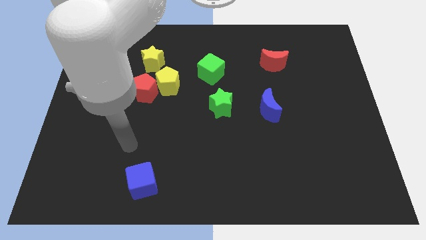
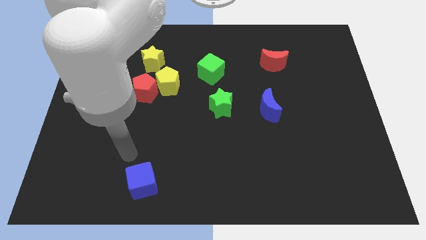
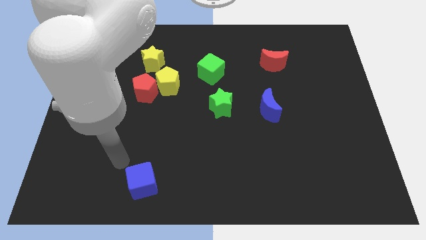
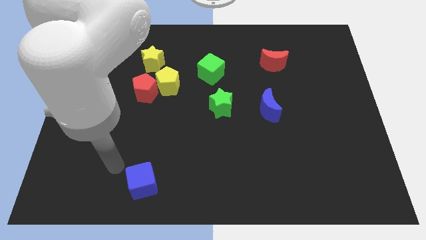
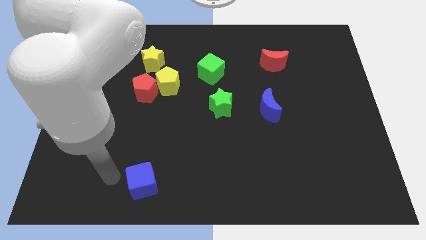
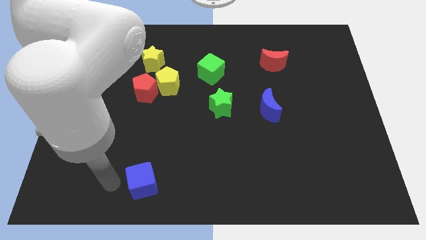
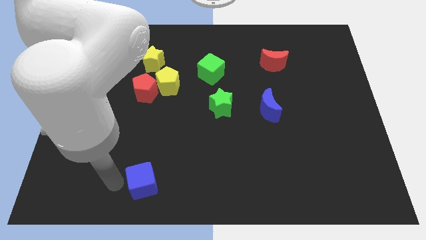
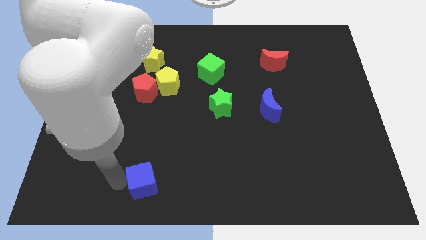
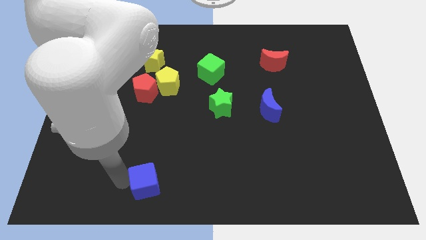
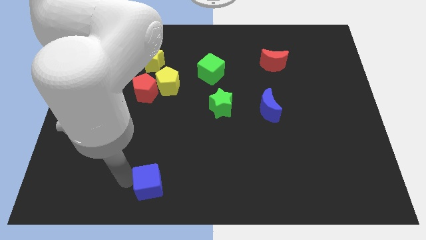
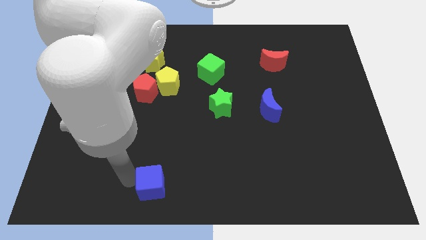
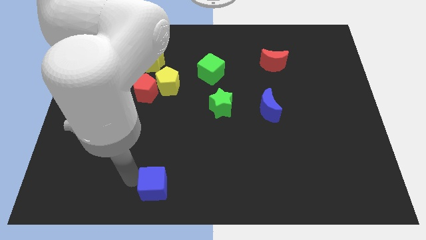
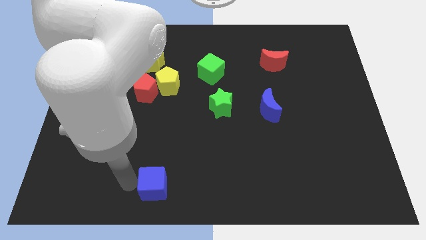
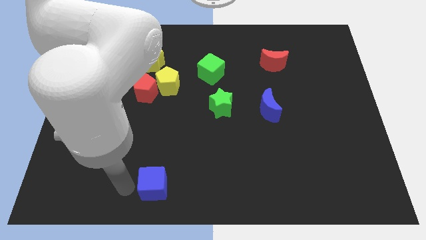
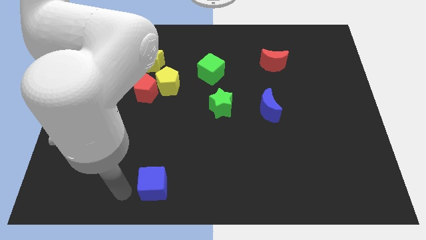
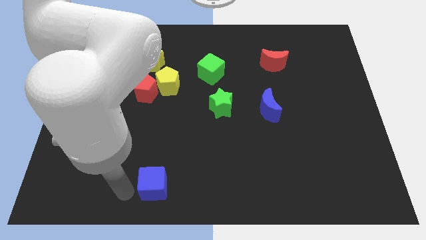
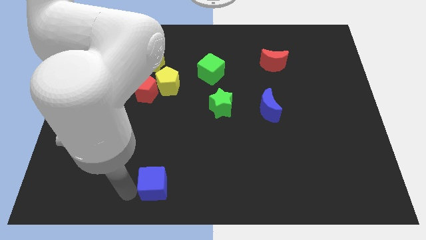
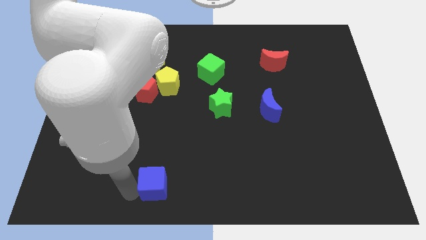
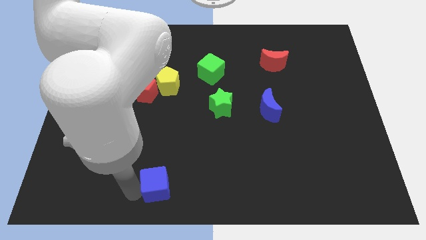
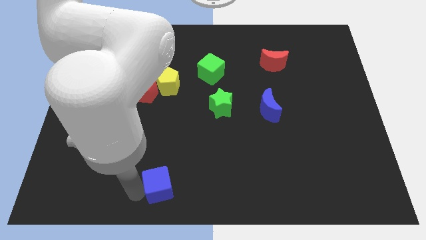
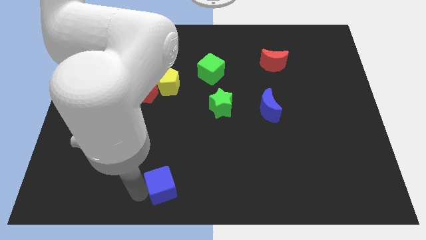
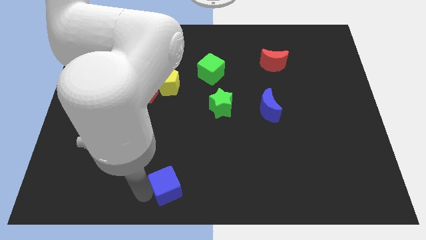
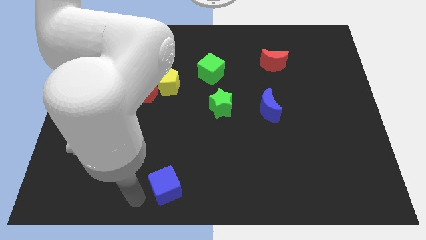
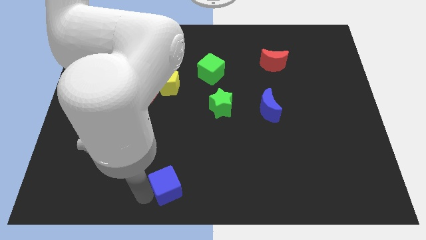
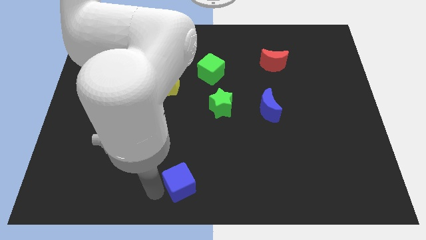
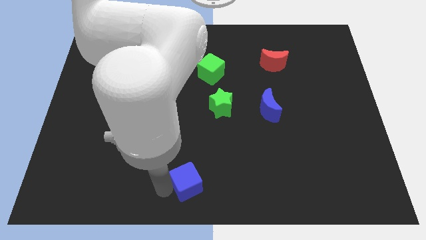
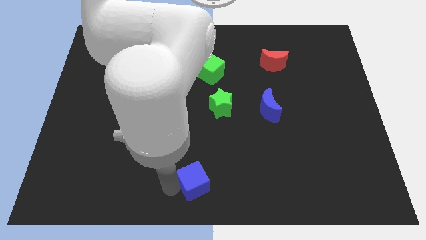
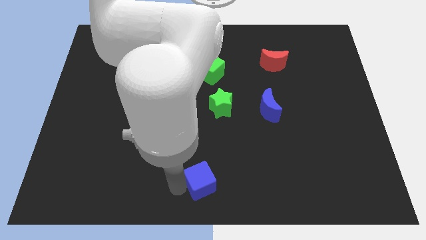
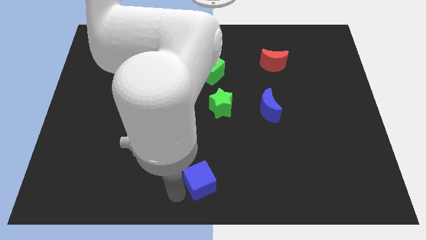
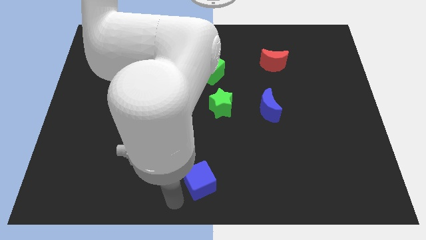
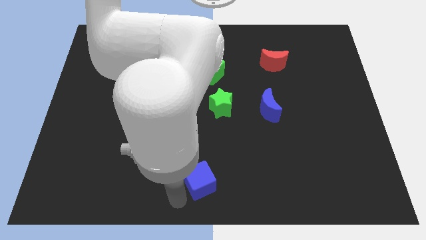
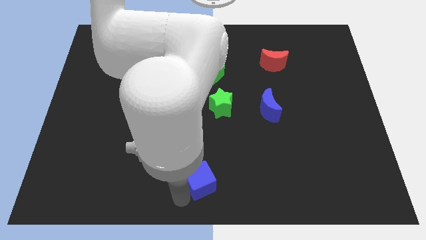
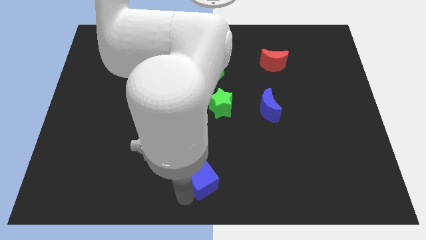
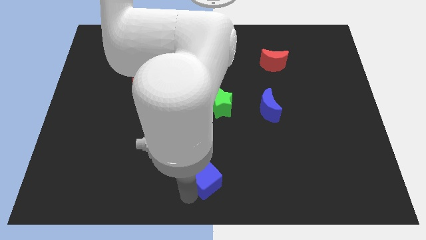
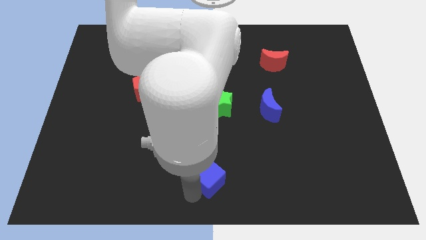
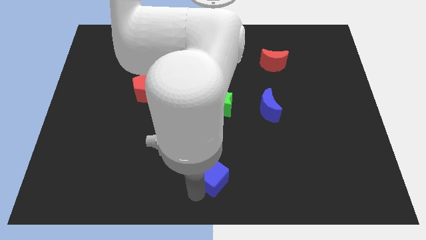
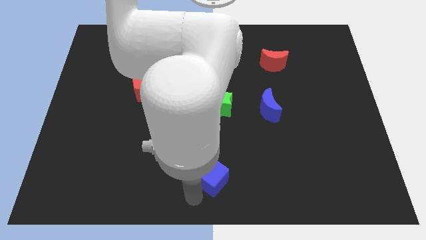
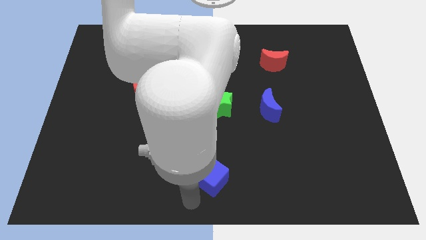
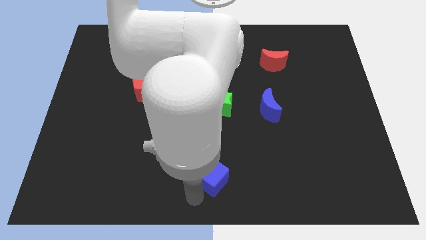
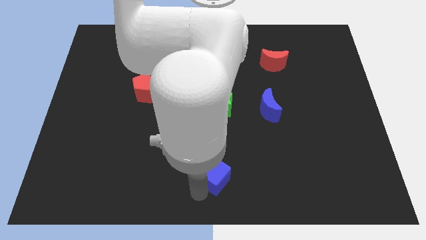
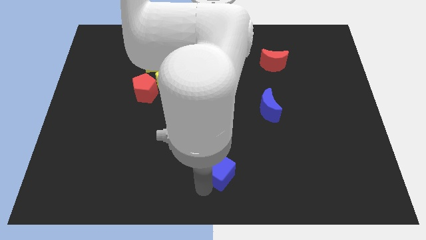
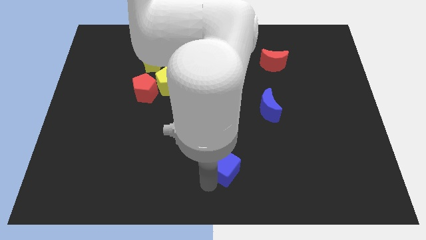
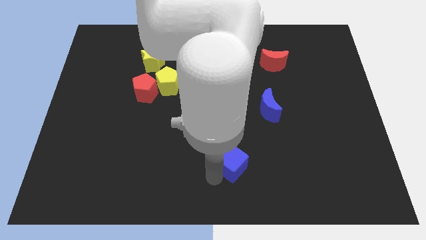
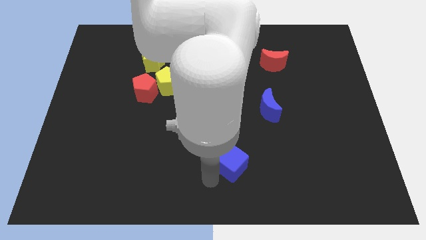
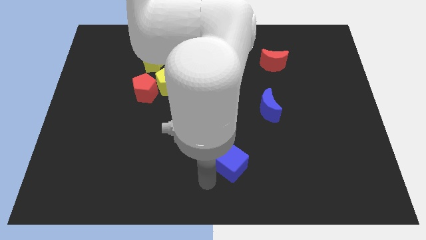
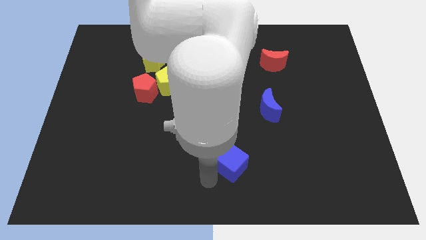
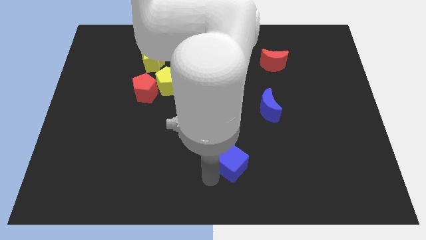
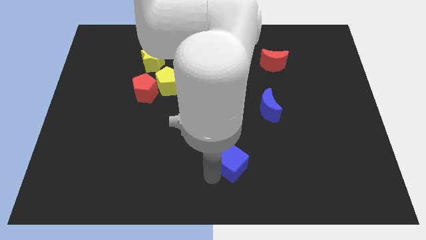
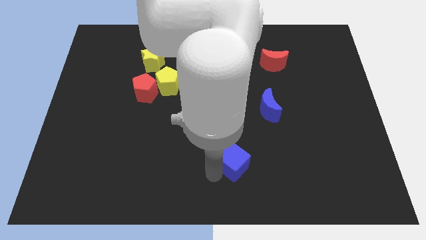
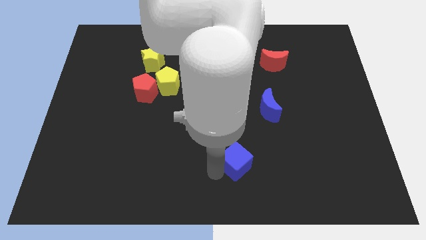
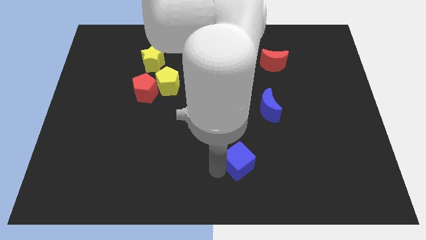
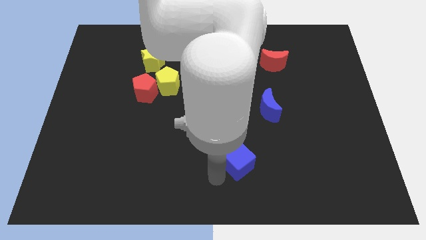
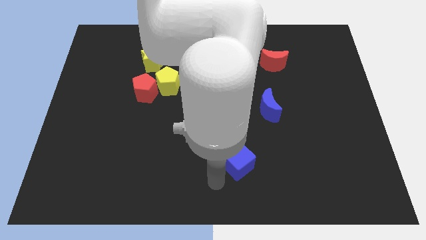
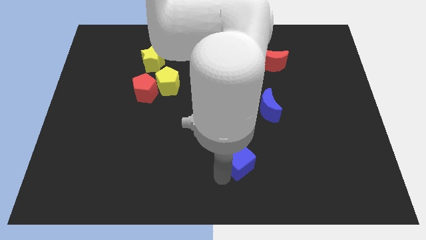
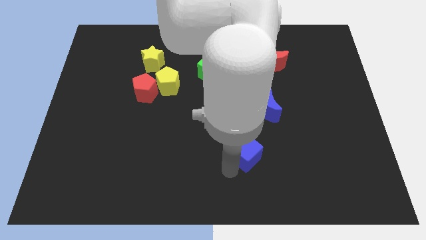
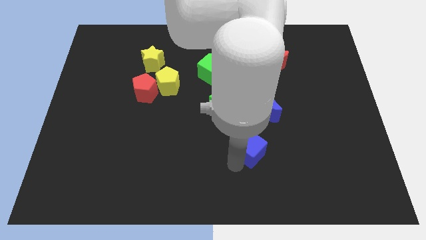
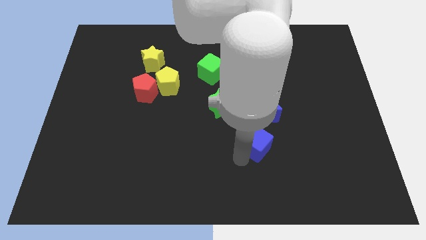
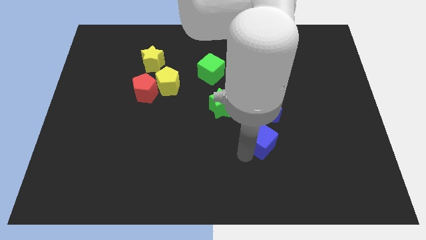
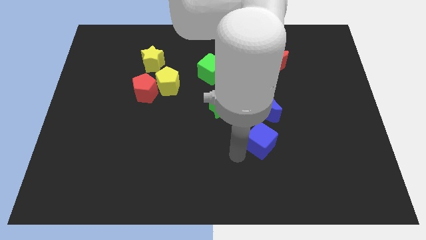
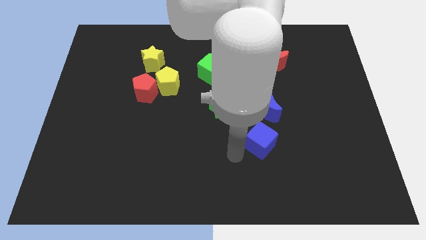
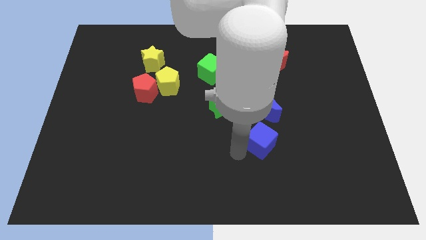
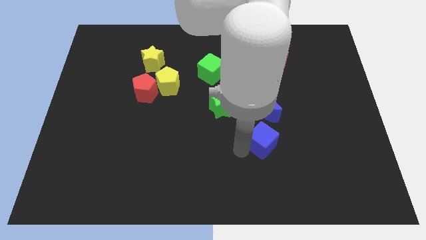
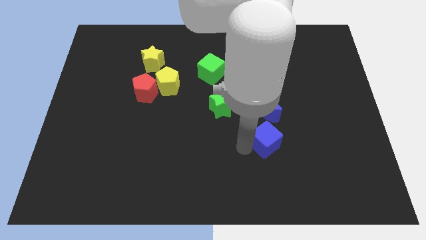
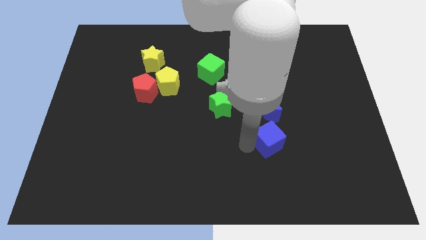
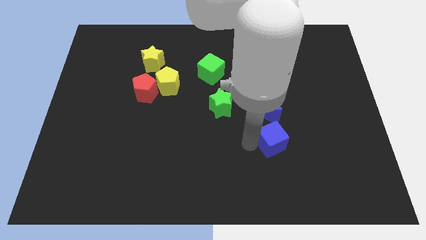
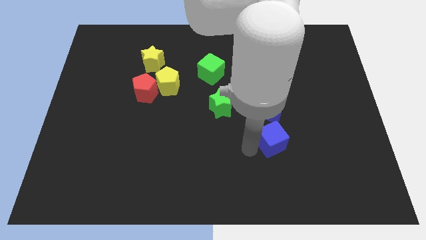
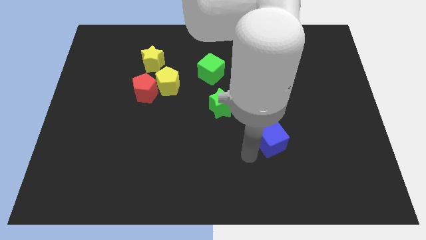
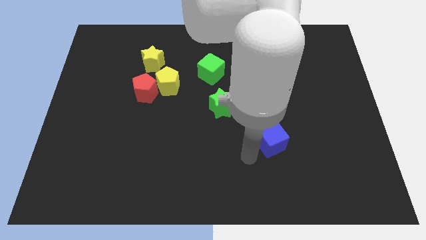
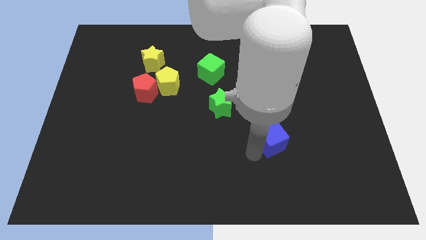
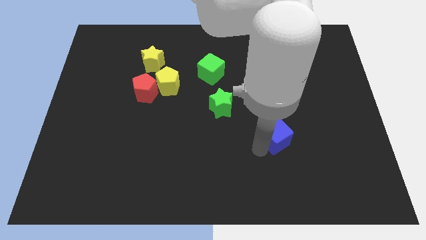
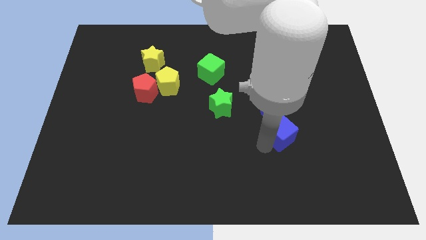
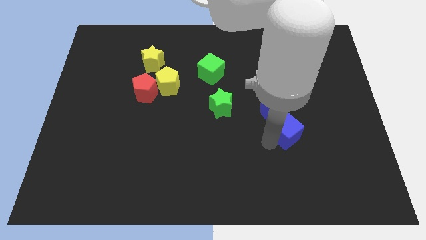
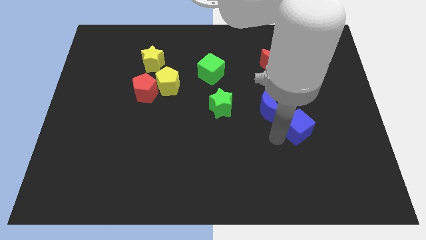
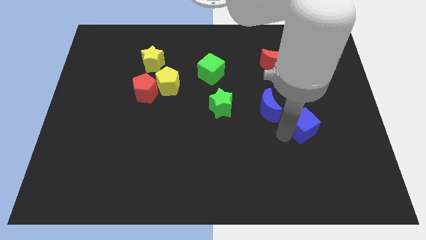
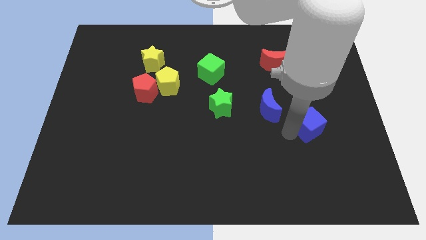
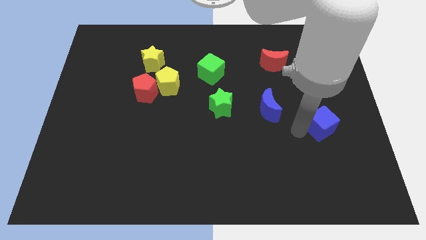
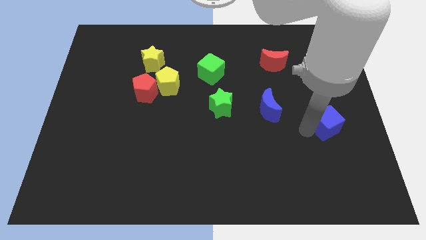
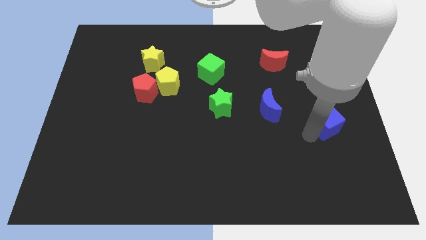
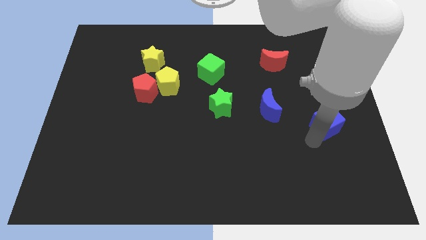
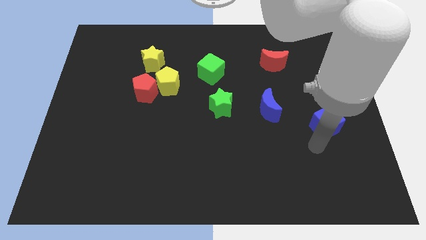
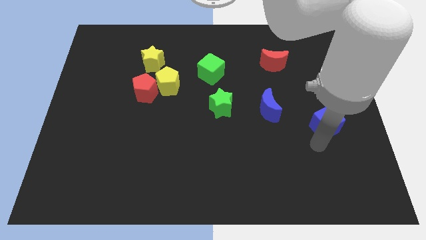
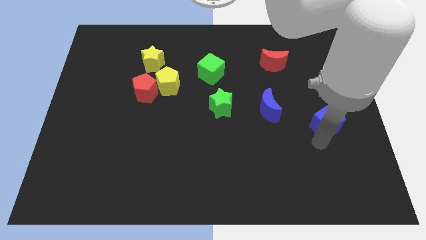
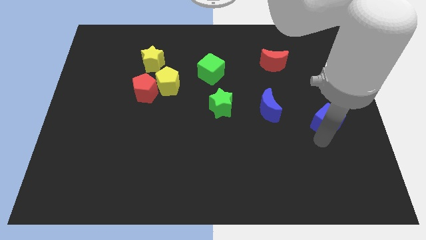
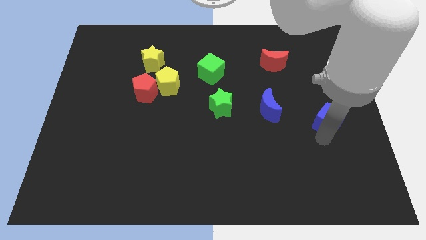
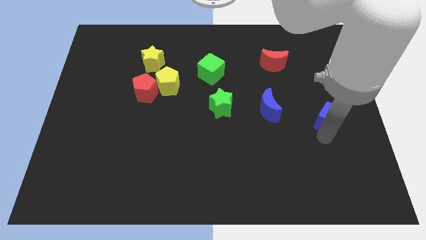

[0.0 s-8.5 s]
put the blue cube to the center right
